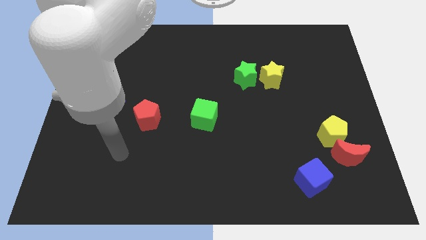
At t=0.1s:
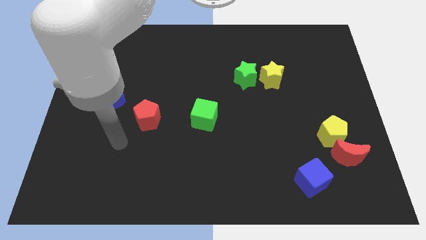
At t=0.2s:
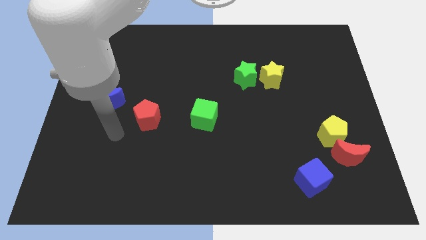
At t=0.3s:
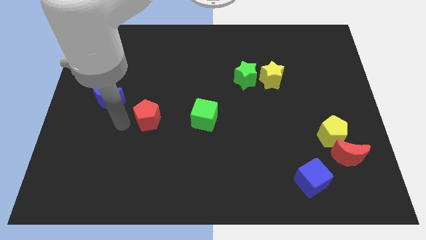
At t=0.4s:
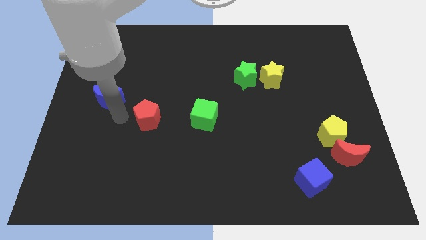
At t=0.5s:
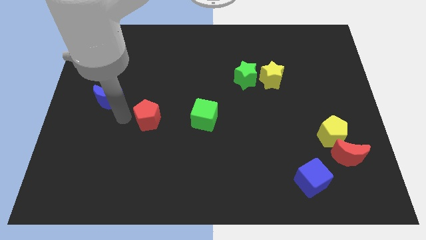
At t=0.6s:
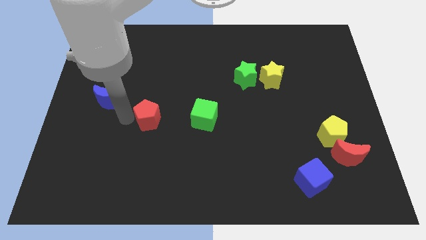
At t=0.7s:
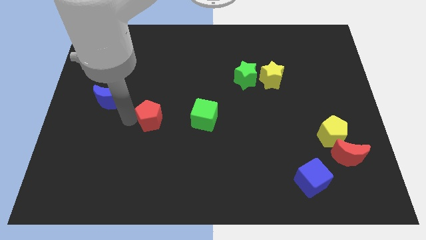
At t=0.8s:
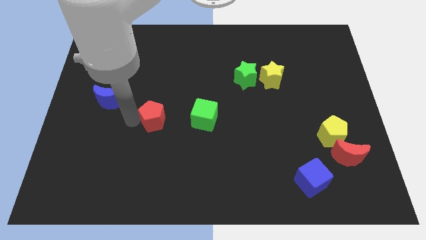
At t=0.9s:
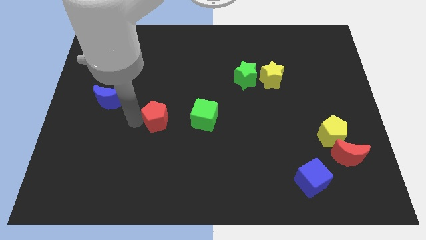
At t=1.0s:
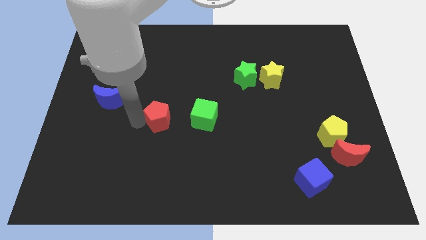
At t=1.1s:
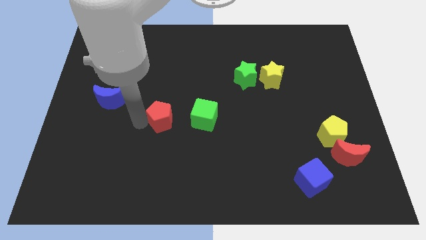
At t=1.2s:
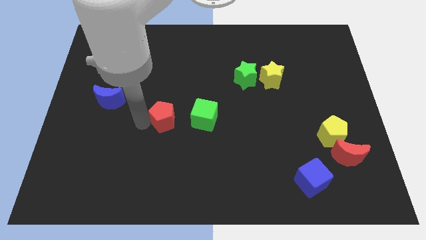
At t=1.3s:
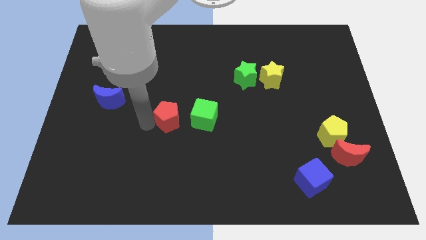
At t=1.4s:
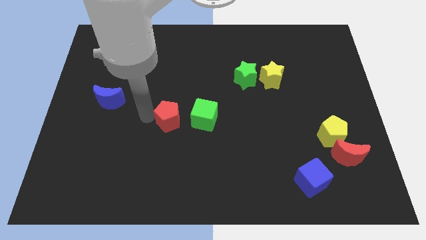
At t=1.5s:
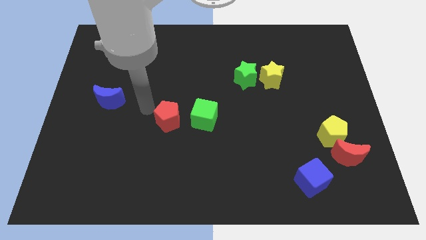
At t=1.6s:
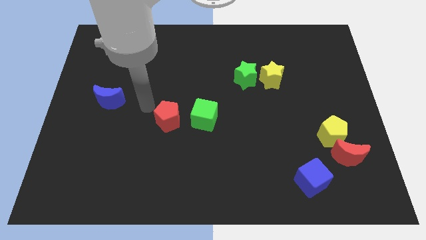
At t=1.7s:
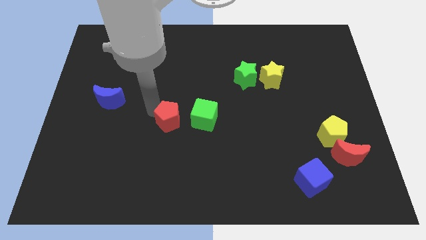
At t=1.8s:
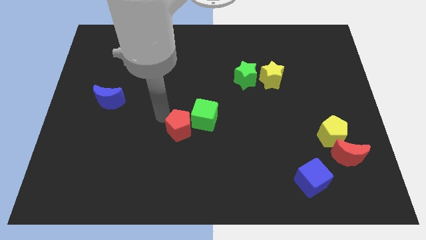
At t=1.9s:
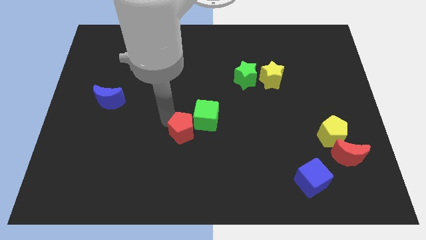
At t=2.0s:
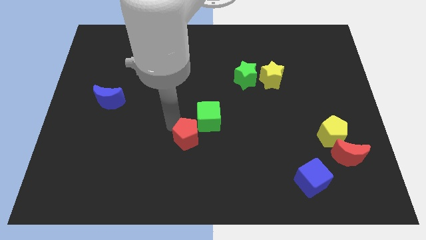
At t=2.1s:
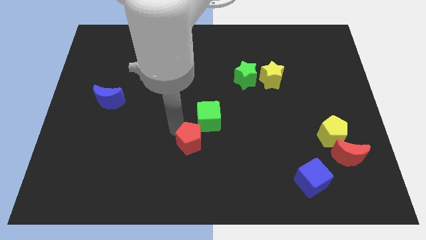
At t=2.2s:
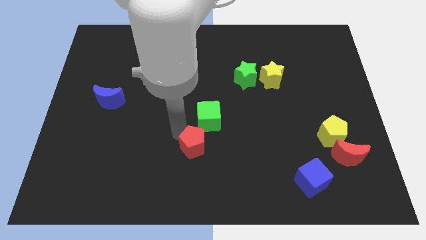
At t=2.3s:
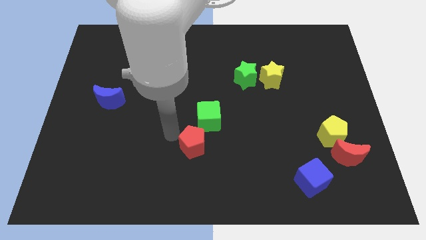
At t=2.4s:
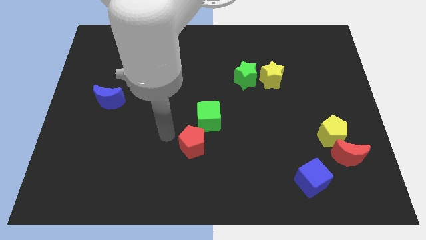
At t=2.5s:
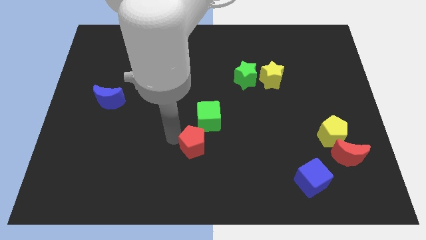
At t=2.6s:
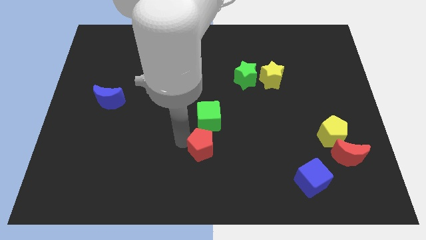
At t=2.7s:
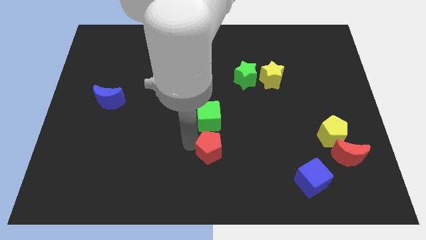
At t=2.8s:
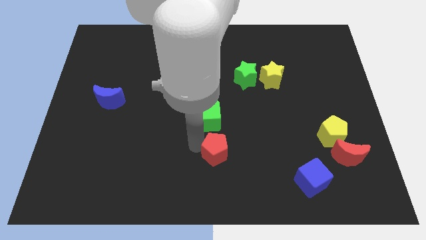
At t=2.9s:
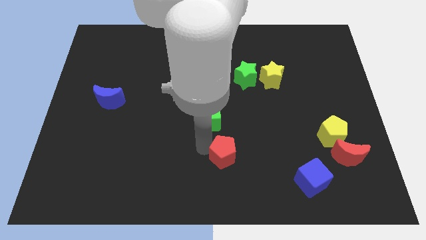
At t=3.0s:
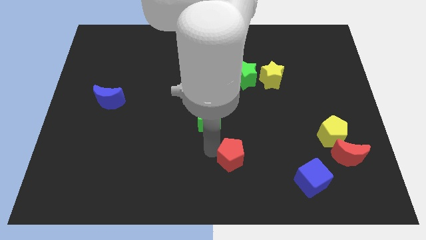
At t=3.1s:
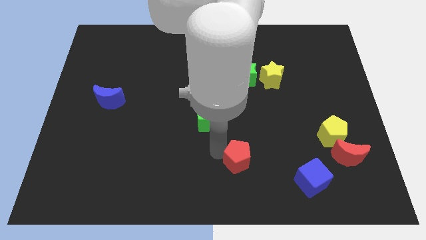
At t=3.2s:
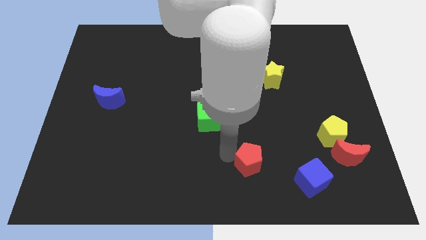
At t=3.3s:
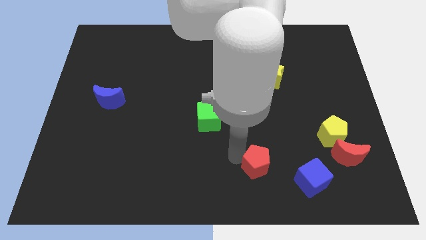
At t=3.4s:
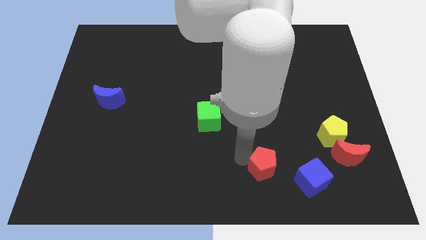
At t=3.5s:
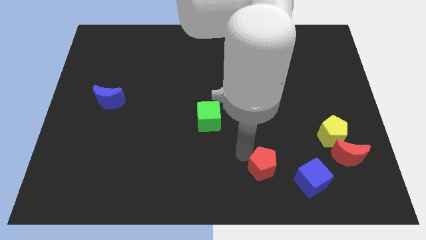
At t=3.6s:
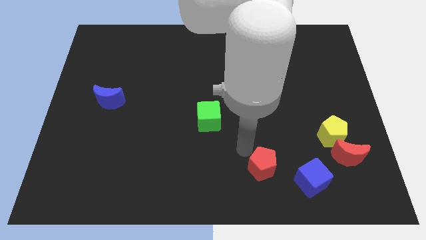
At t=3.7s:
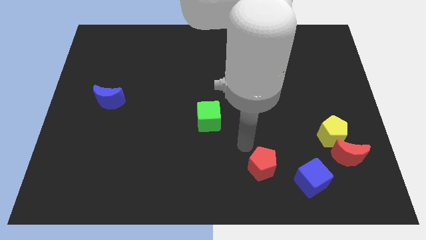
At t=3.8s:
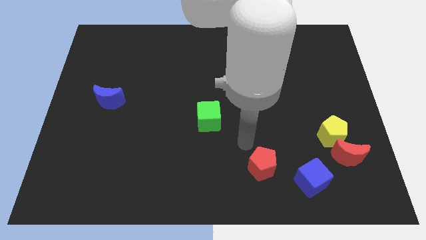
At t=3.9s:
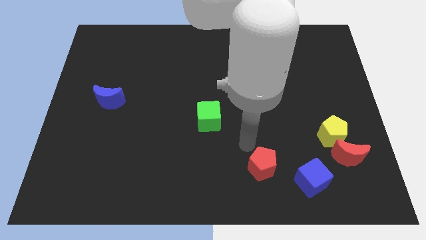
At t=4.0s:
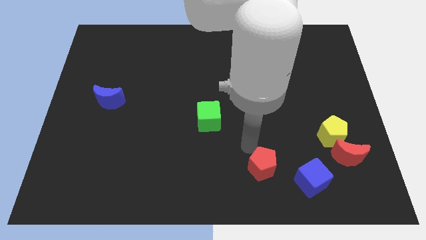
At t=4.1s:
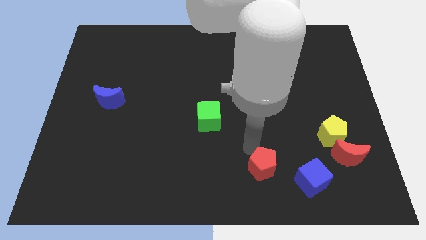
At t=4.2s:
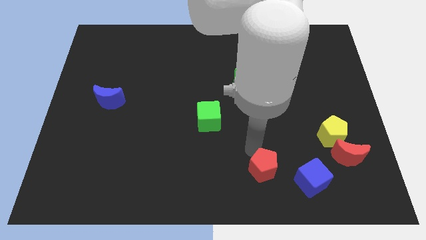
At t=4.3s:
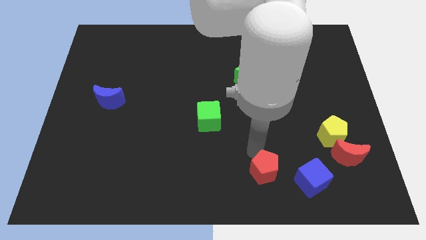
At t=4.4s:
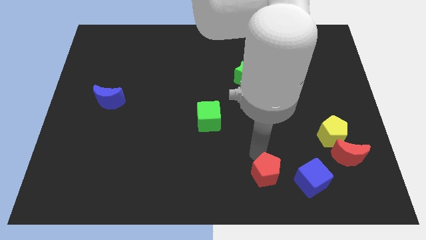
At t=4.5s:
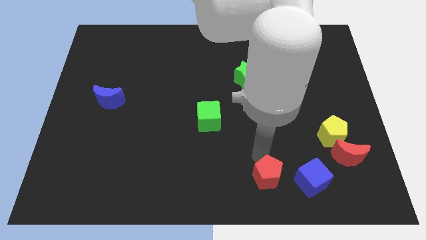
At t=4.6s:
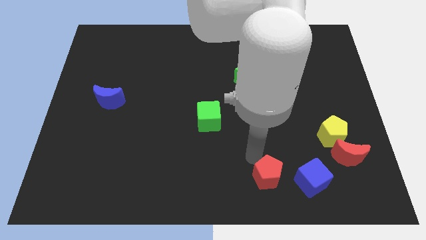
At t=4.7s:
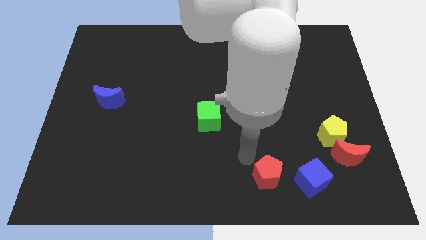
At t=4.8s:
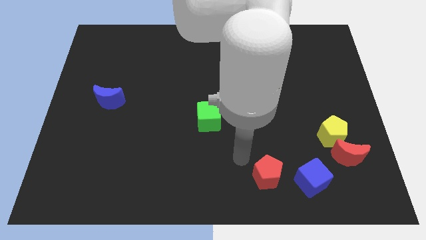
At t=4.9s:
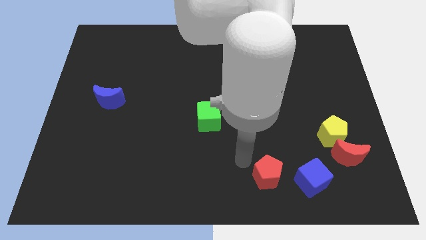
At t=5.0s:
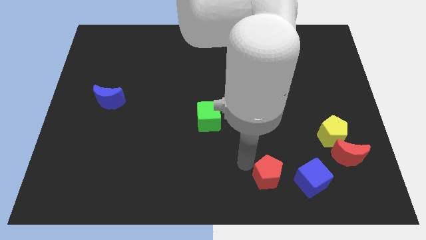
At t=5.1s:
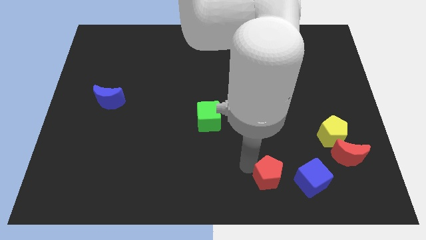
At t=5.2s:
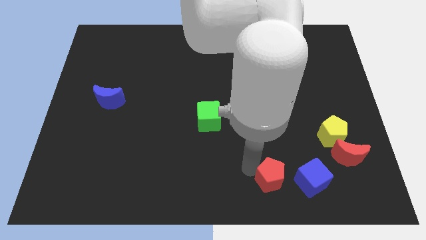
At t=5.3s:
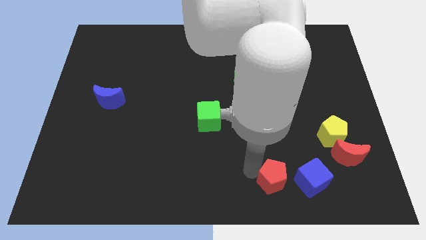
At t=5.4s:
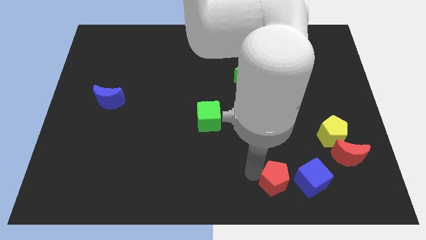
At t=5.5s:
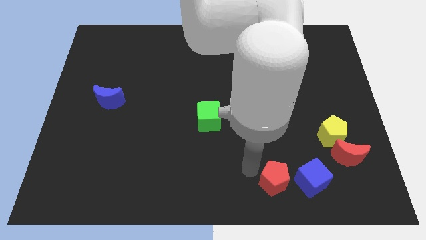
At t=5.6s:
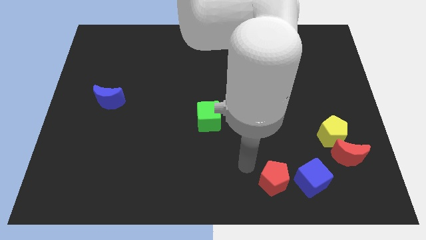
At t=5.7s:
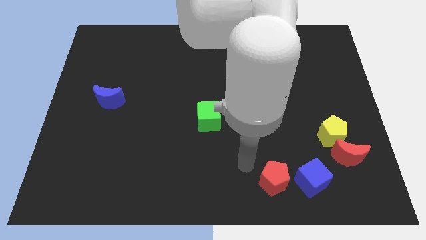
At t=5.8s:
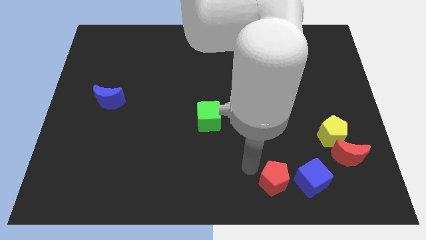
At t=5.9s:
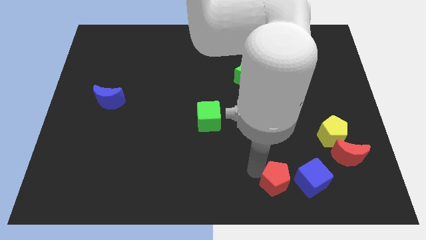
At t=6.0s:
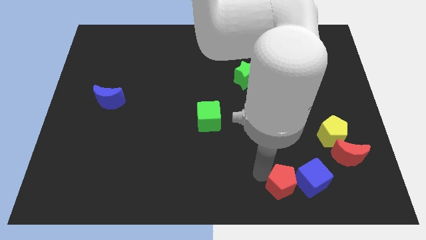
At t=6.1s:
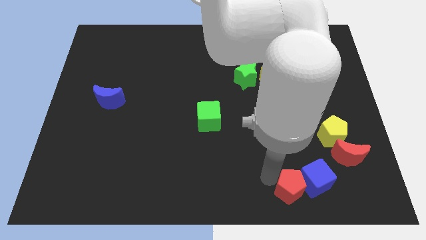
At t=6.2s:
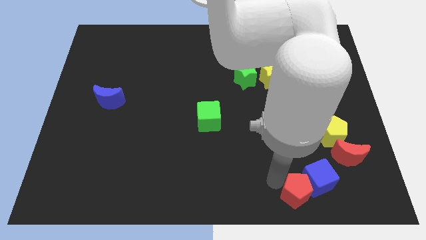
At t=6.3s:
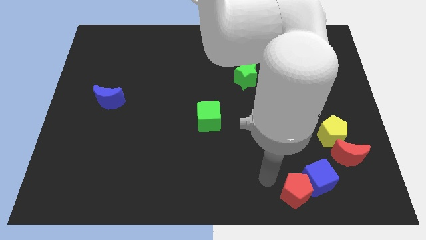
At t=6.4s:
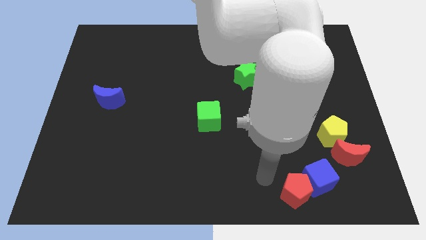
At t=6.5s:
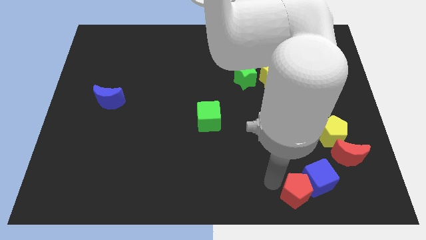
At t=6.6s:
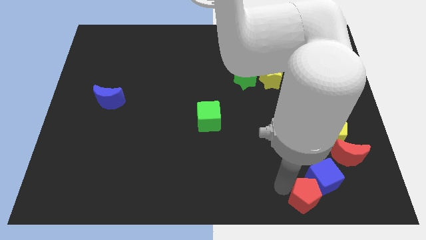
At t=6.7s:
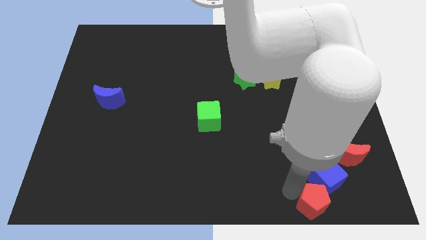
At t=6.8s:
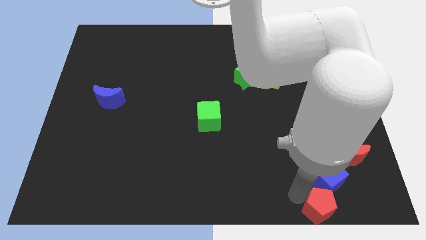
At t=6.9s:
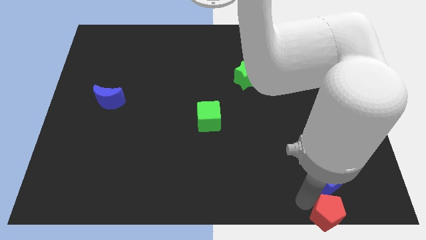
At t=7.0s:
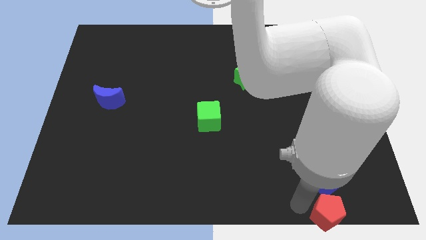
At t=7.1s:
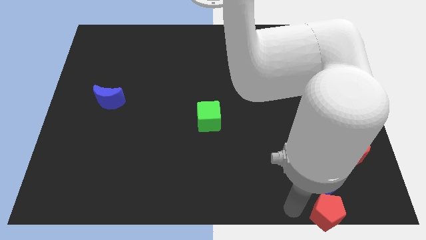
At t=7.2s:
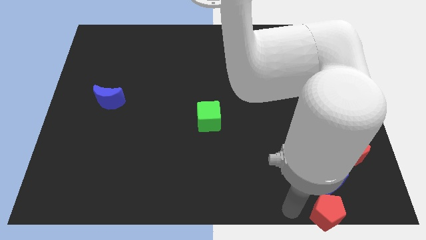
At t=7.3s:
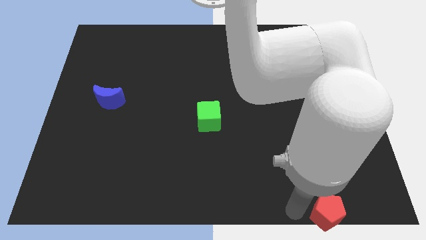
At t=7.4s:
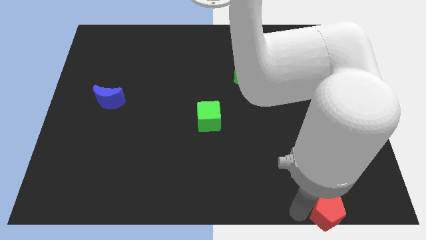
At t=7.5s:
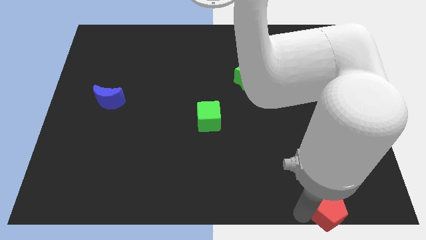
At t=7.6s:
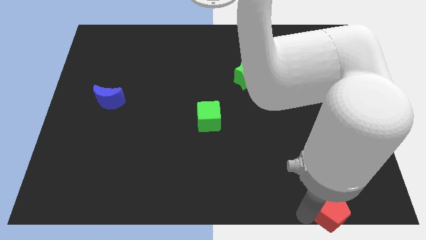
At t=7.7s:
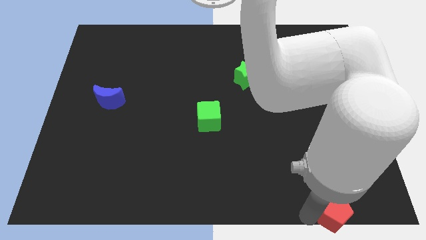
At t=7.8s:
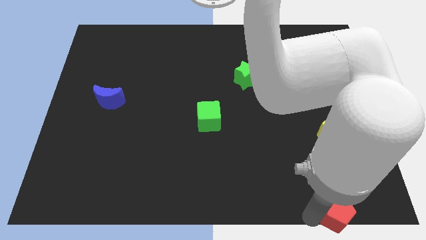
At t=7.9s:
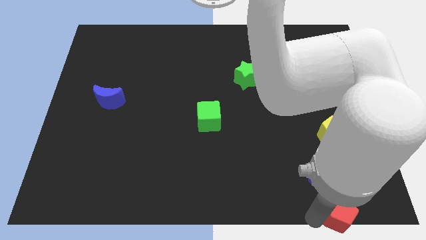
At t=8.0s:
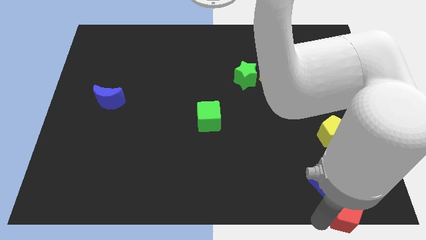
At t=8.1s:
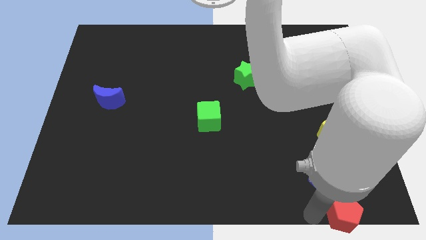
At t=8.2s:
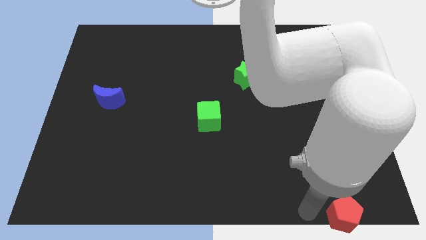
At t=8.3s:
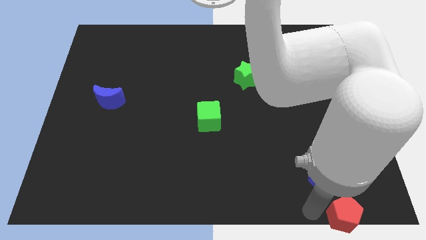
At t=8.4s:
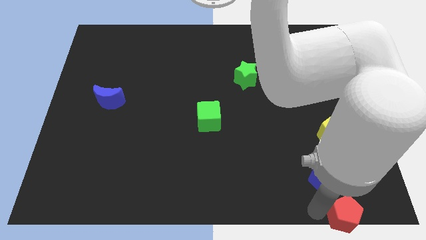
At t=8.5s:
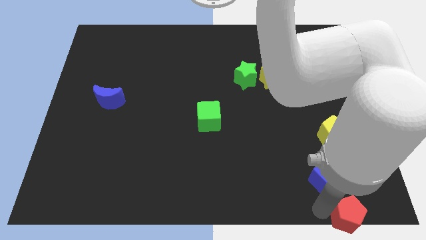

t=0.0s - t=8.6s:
put the red pentagon to the bottom right
